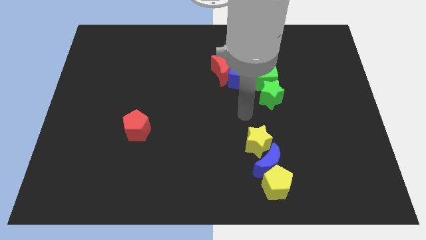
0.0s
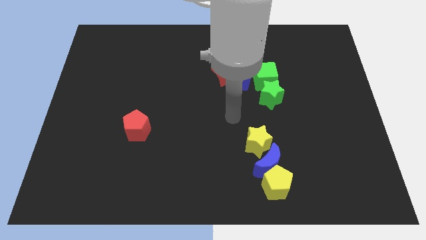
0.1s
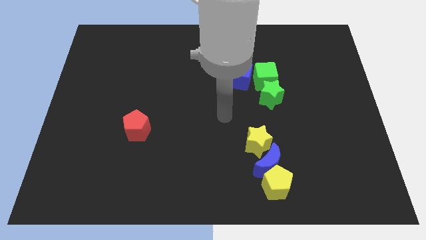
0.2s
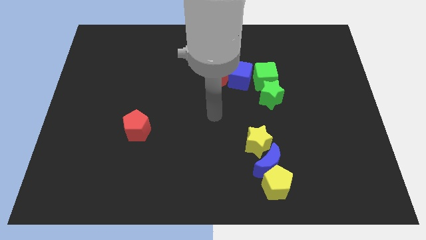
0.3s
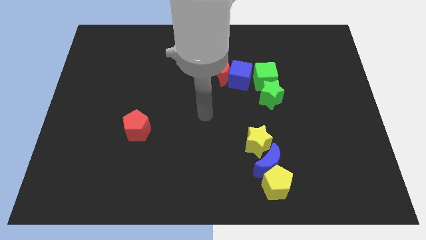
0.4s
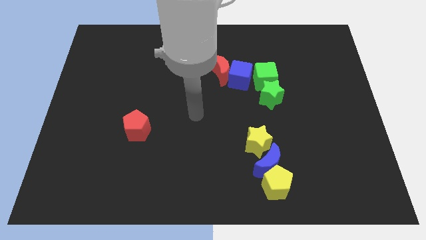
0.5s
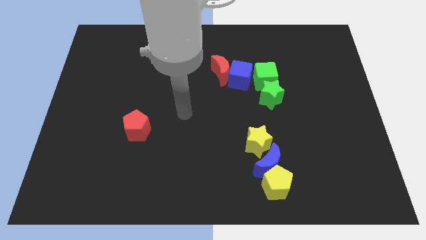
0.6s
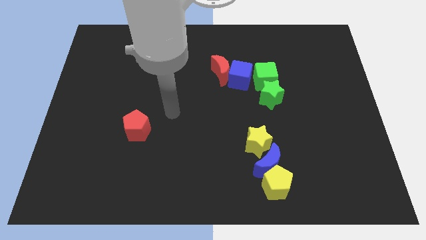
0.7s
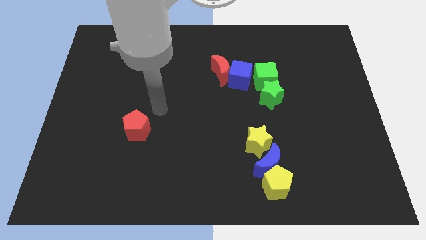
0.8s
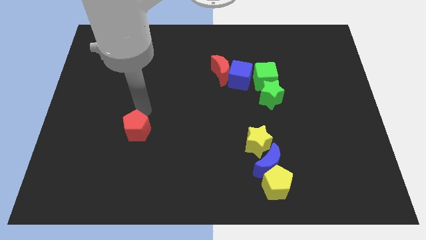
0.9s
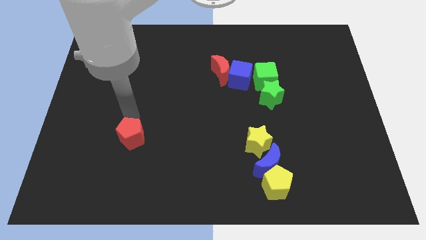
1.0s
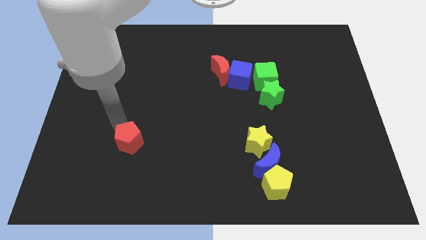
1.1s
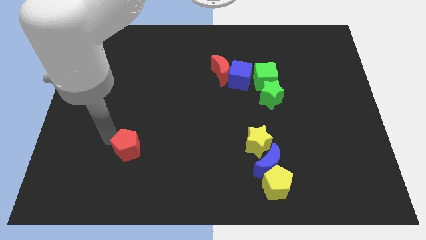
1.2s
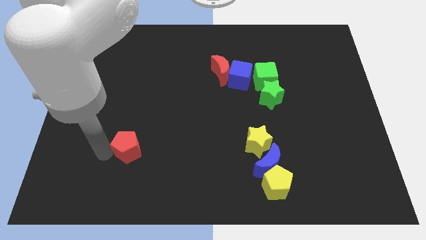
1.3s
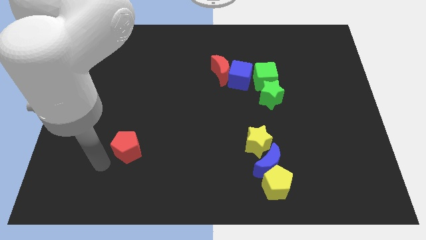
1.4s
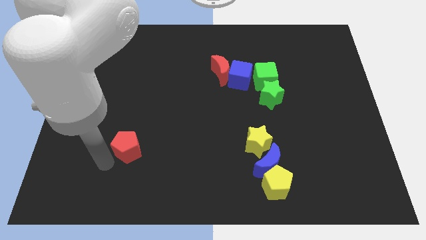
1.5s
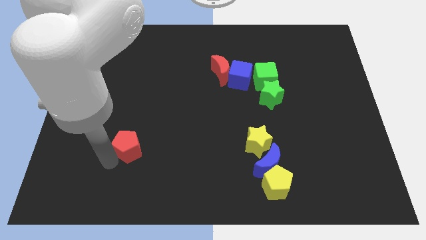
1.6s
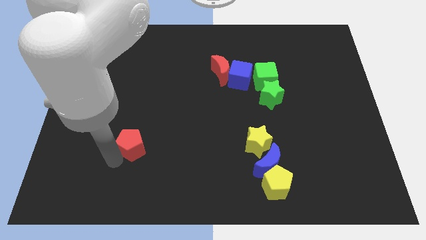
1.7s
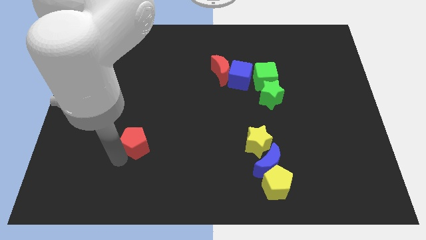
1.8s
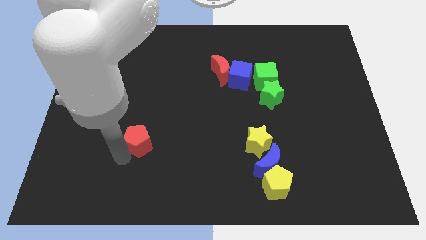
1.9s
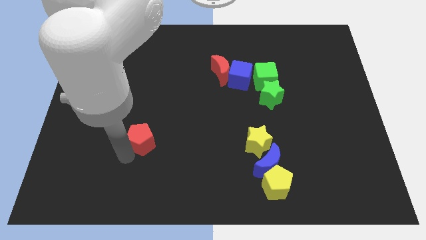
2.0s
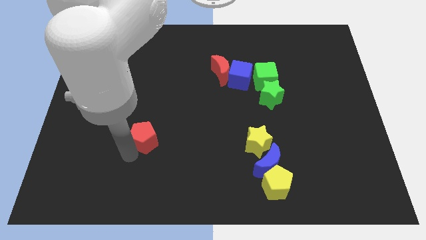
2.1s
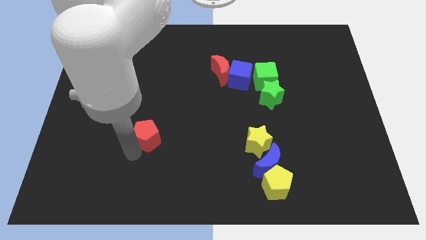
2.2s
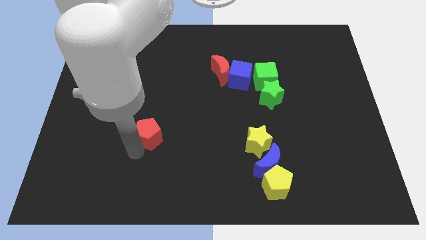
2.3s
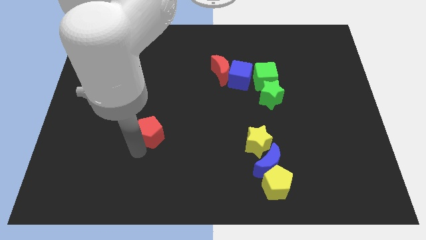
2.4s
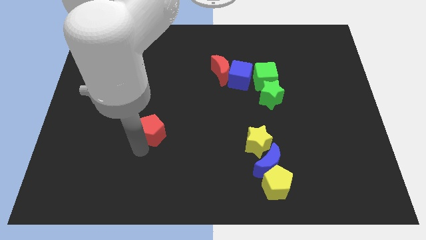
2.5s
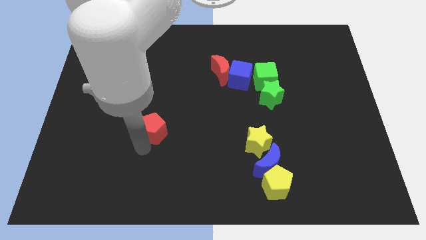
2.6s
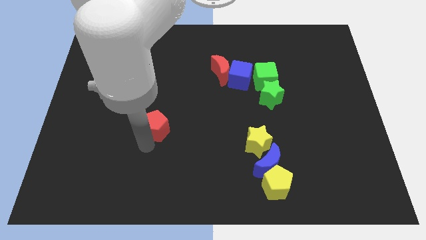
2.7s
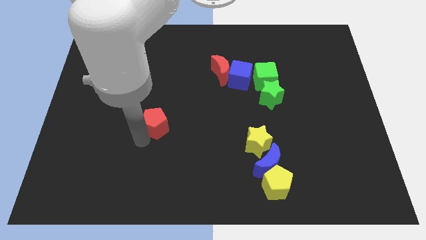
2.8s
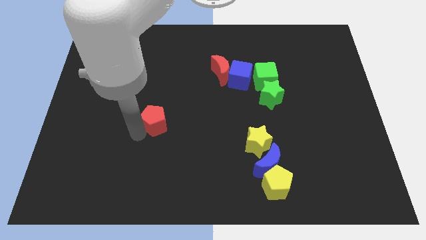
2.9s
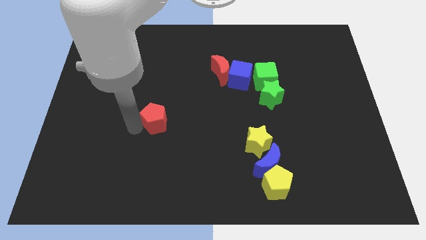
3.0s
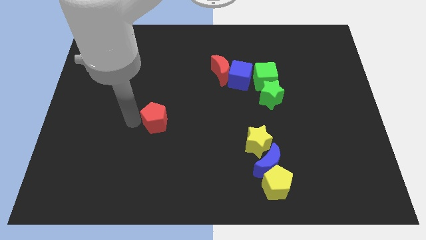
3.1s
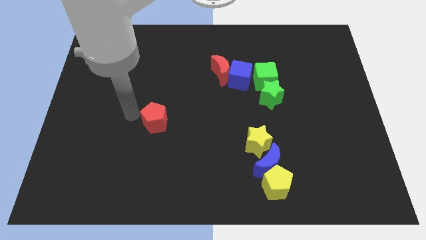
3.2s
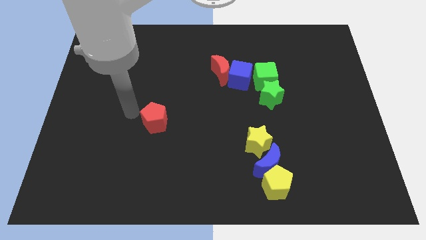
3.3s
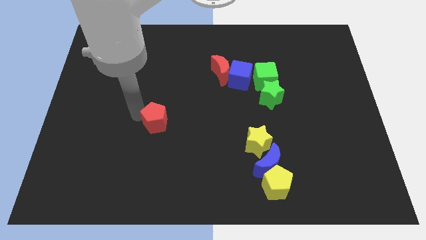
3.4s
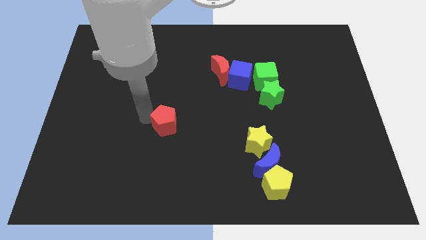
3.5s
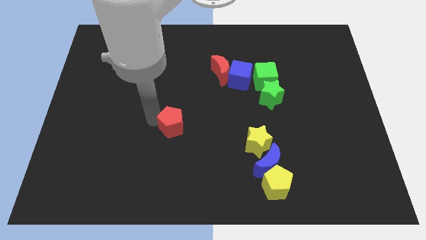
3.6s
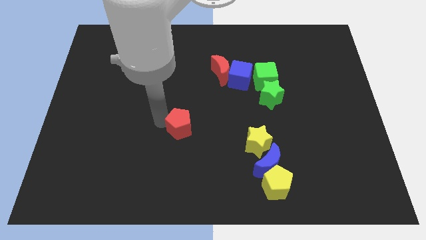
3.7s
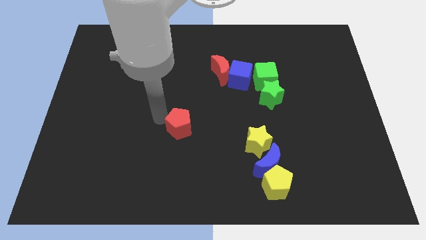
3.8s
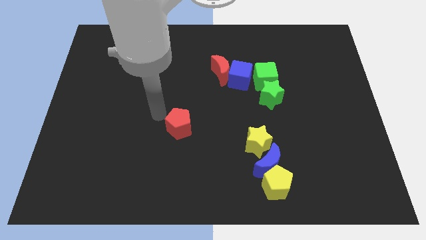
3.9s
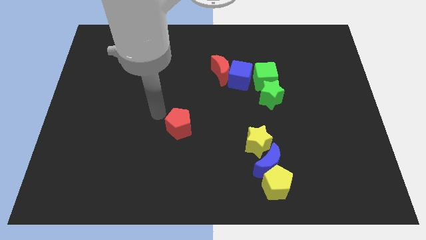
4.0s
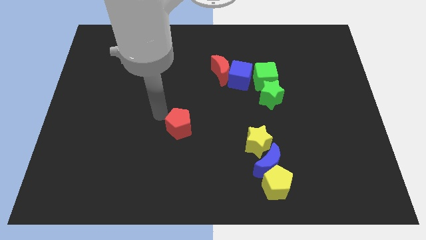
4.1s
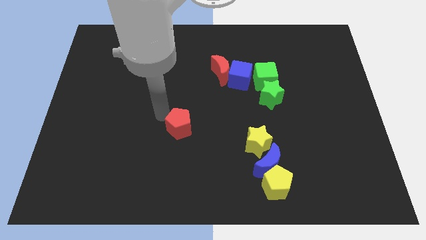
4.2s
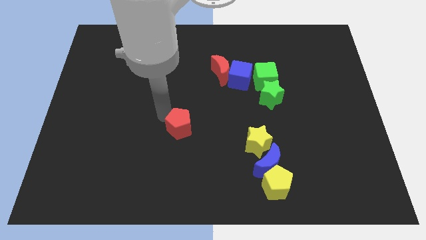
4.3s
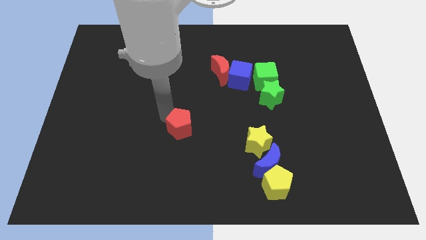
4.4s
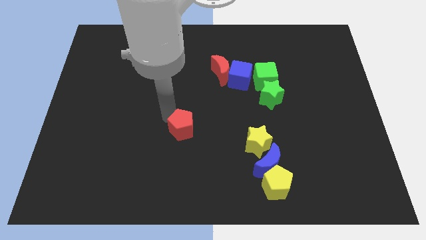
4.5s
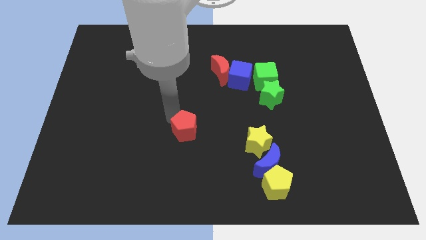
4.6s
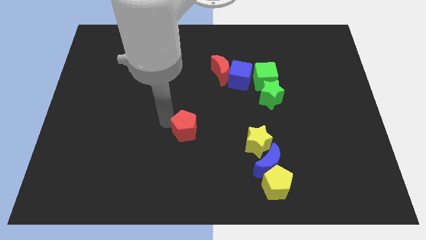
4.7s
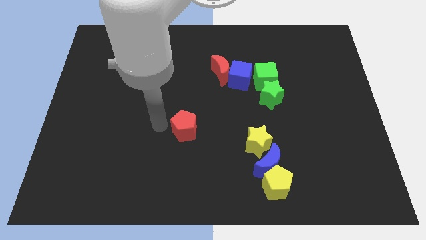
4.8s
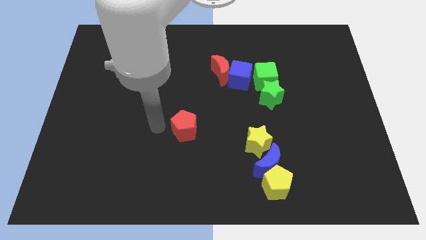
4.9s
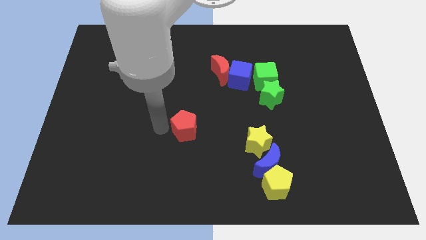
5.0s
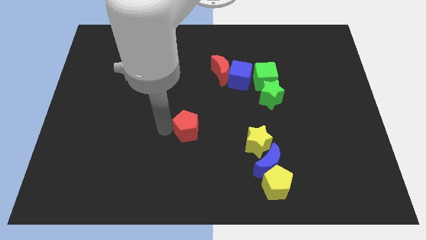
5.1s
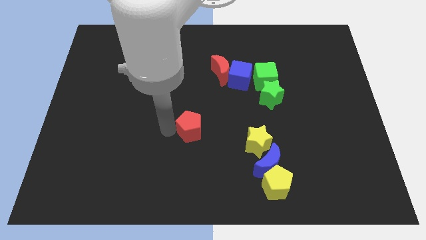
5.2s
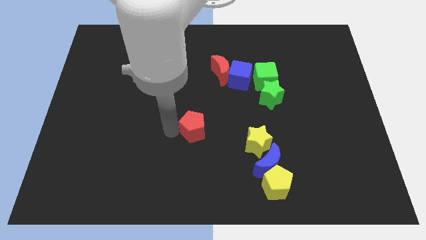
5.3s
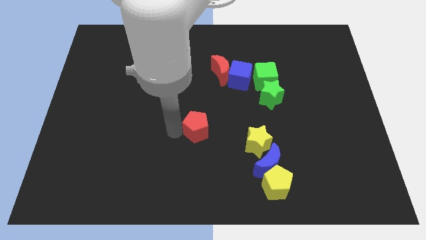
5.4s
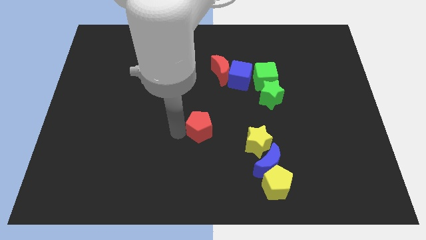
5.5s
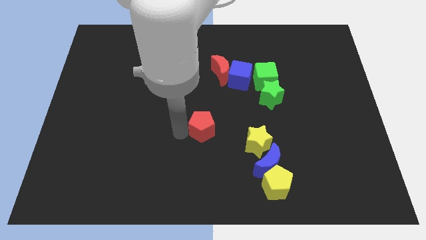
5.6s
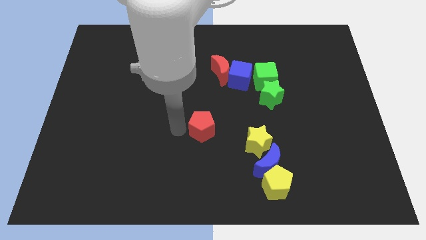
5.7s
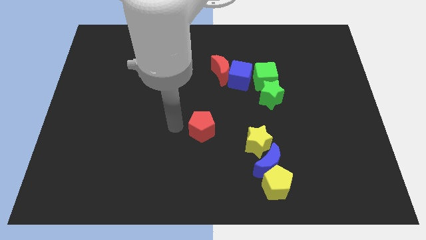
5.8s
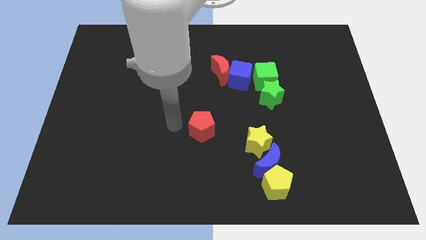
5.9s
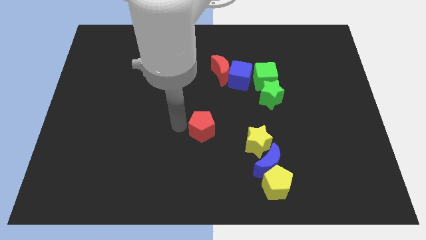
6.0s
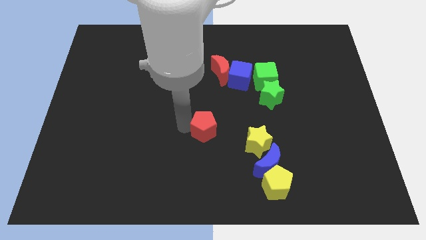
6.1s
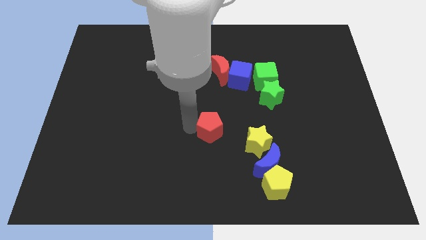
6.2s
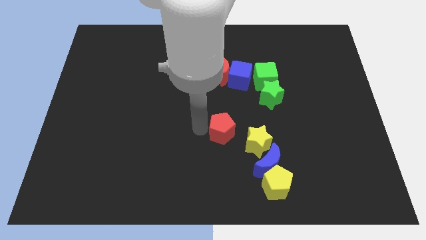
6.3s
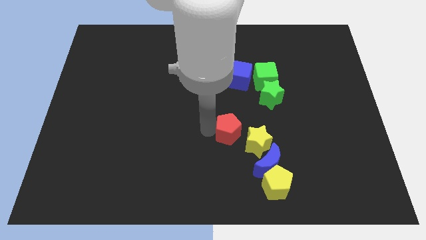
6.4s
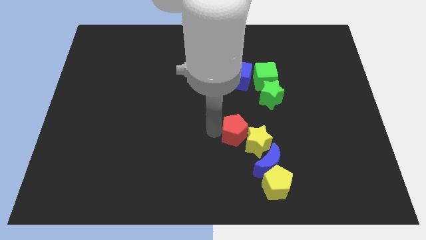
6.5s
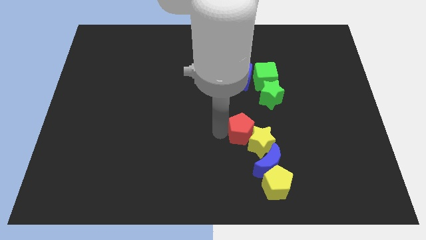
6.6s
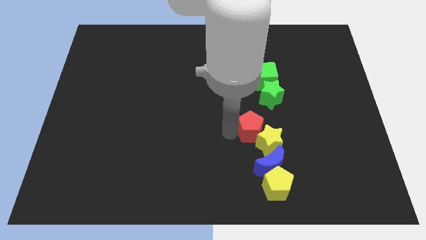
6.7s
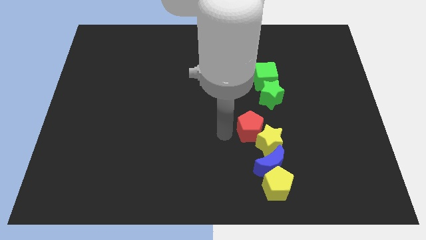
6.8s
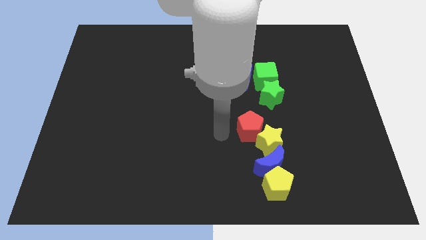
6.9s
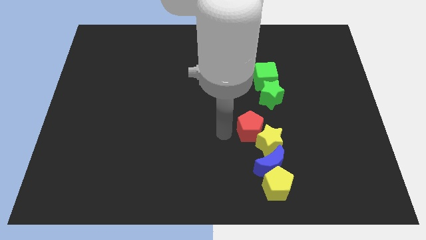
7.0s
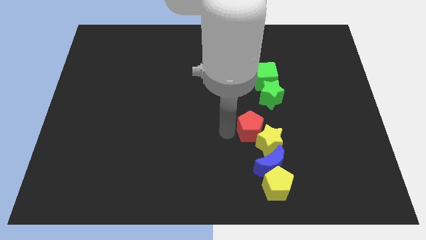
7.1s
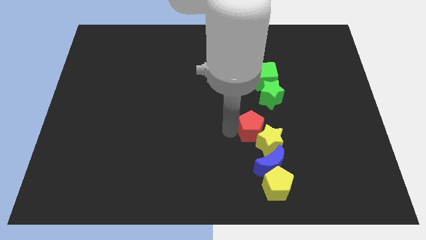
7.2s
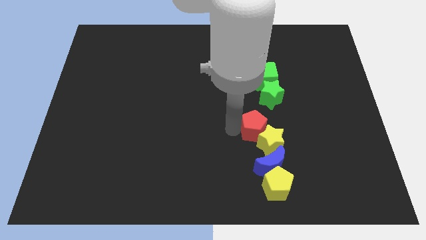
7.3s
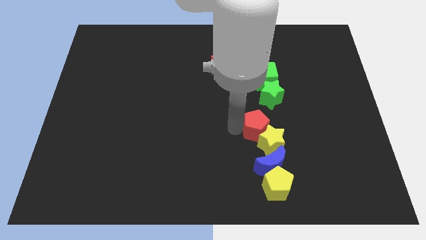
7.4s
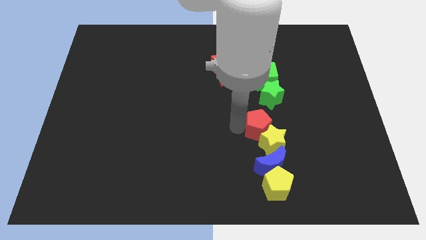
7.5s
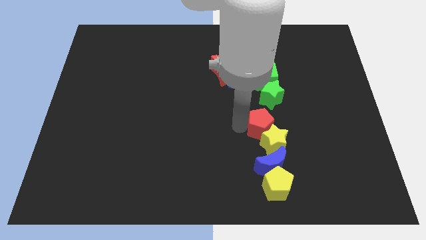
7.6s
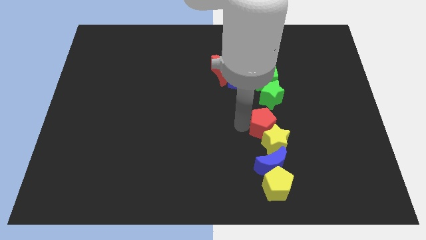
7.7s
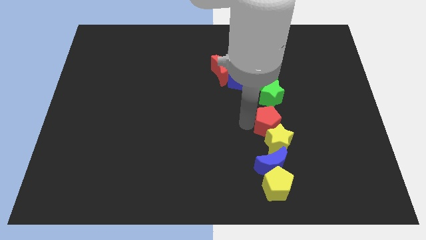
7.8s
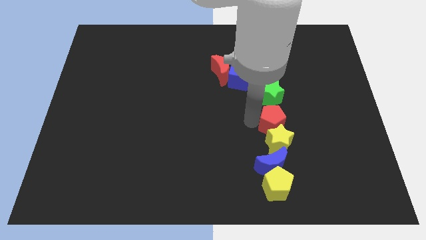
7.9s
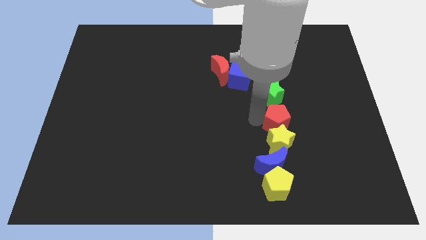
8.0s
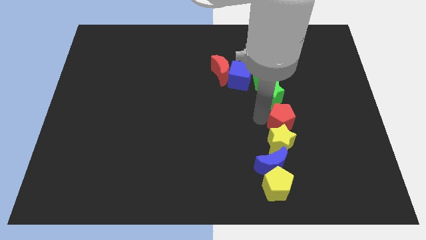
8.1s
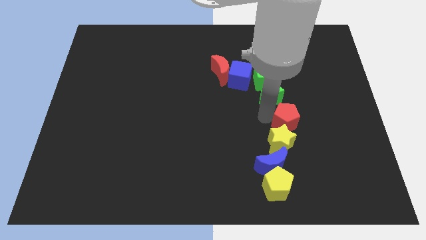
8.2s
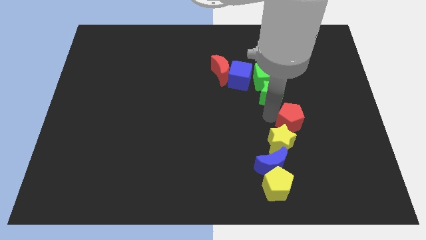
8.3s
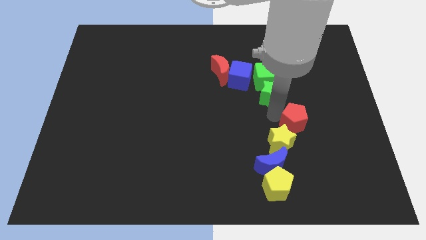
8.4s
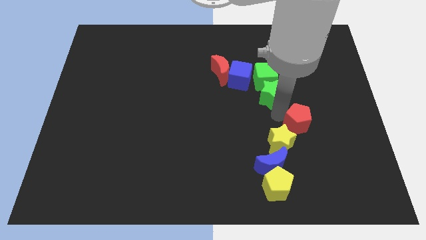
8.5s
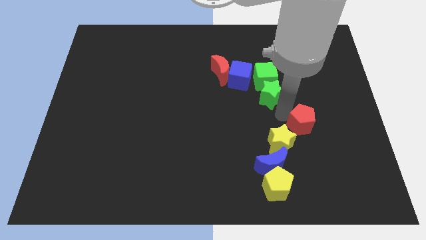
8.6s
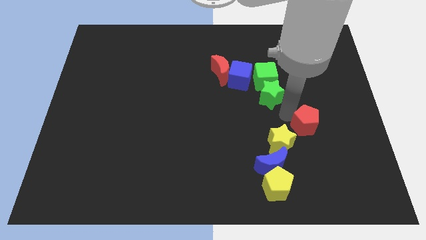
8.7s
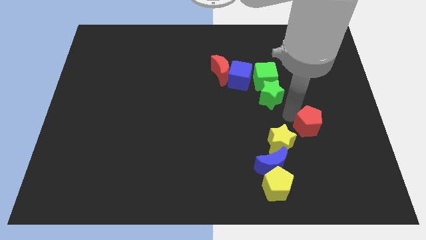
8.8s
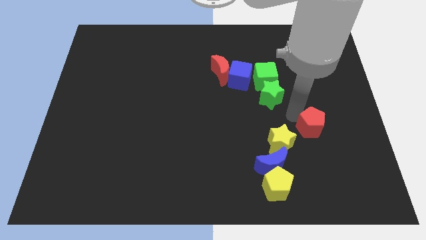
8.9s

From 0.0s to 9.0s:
slide the red pentagon to the right side of the yellow star
